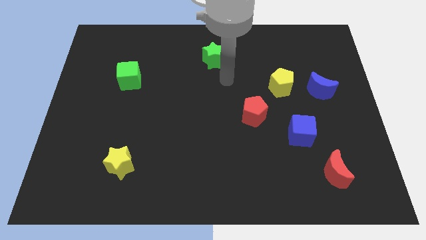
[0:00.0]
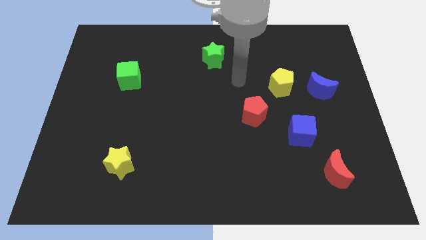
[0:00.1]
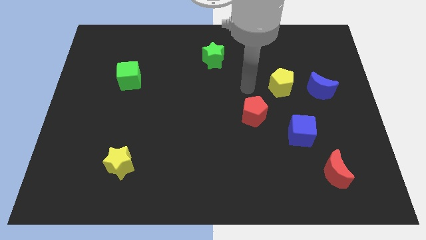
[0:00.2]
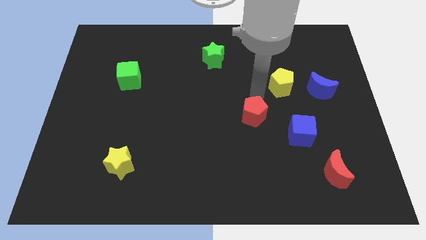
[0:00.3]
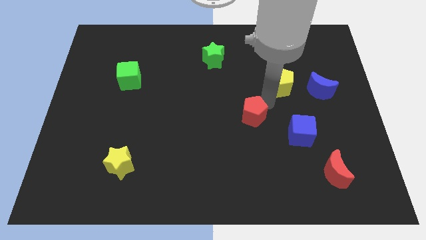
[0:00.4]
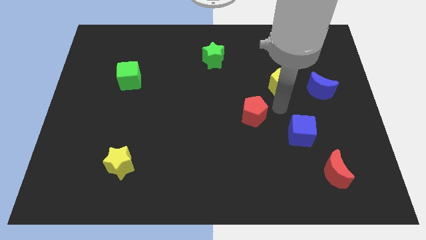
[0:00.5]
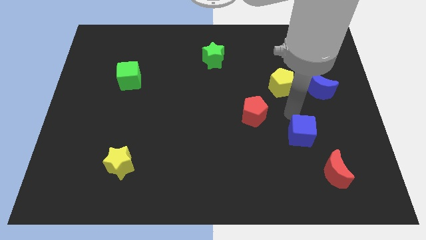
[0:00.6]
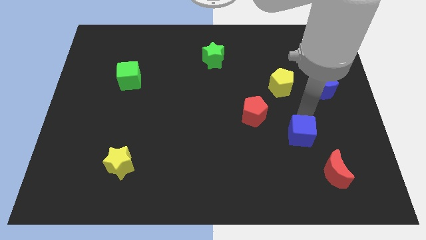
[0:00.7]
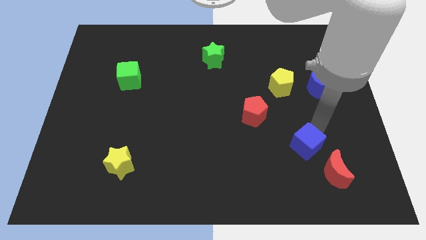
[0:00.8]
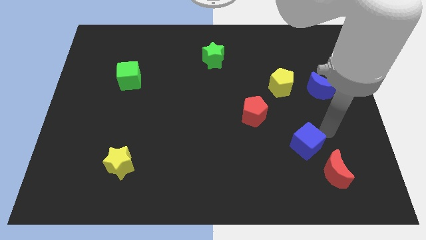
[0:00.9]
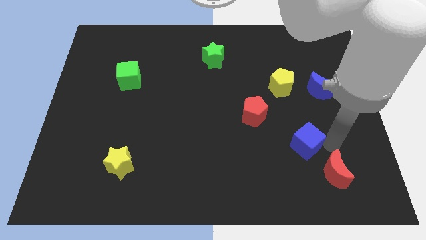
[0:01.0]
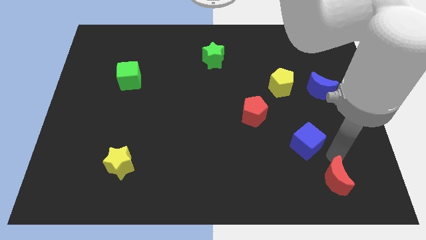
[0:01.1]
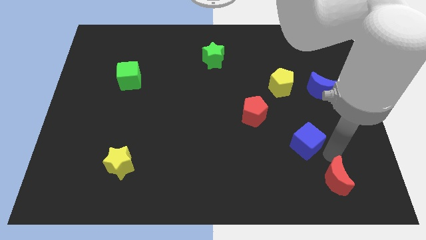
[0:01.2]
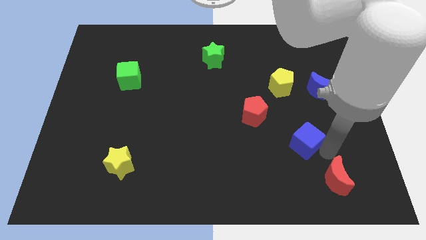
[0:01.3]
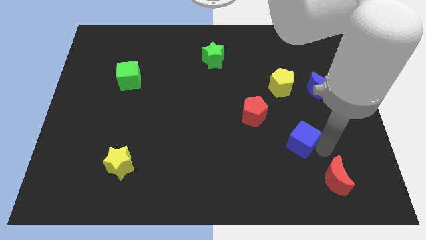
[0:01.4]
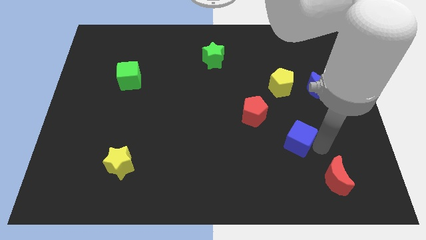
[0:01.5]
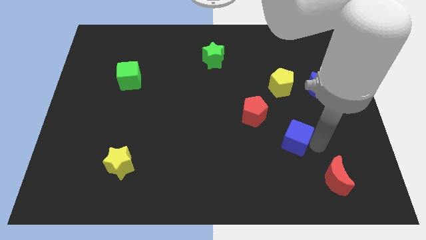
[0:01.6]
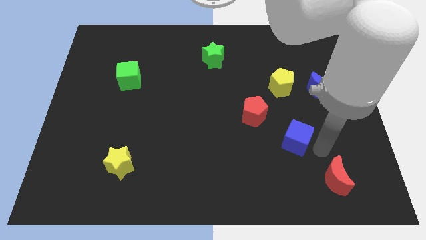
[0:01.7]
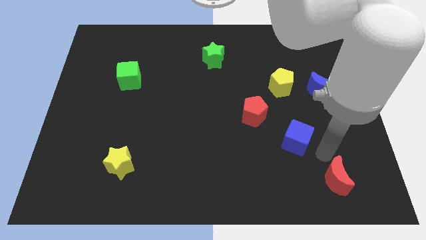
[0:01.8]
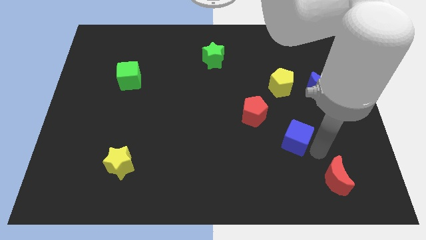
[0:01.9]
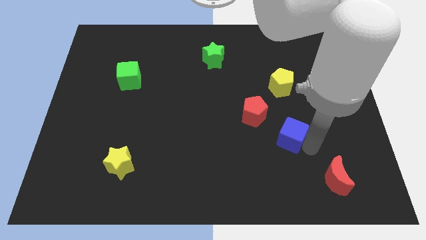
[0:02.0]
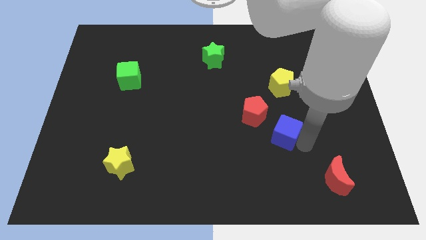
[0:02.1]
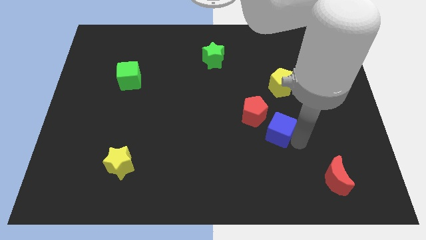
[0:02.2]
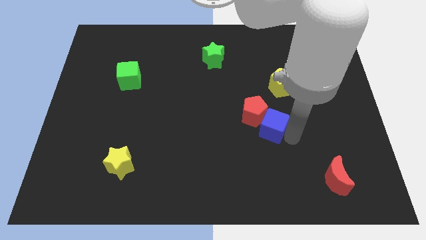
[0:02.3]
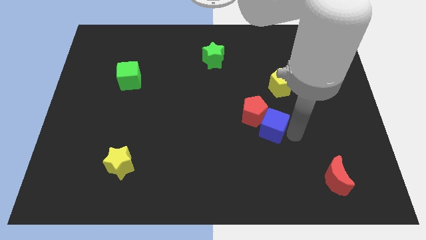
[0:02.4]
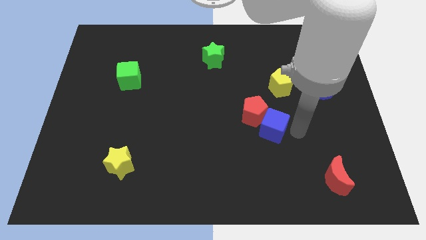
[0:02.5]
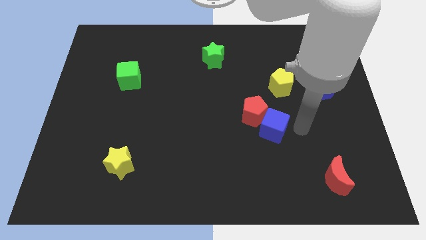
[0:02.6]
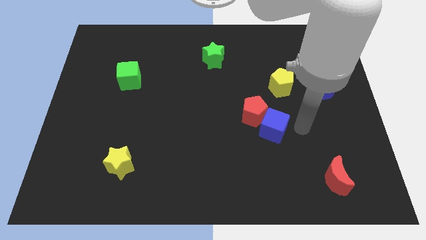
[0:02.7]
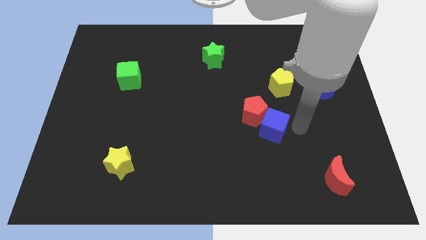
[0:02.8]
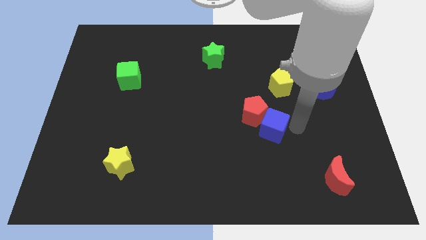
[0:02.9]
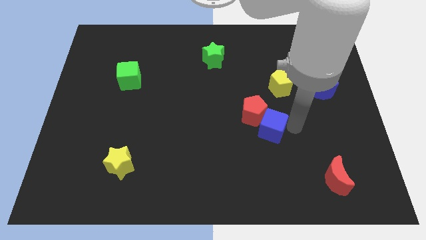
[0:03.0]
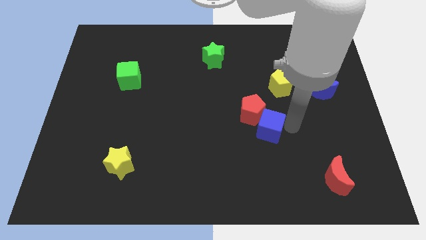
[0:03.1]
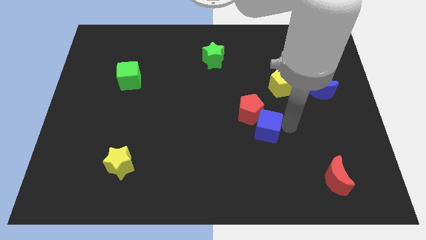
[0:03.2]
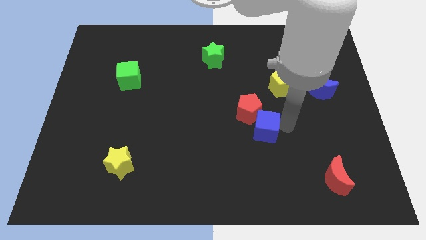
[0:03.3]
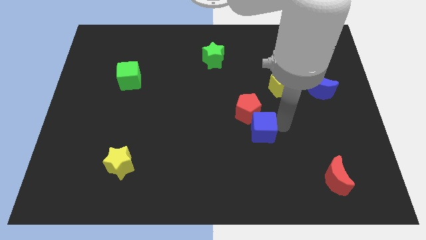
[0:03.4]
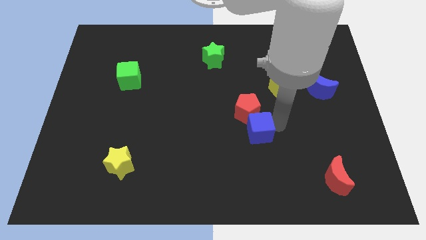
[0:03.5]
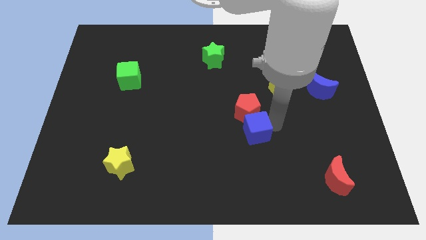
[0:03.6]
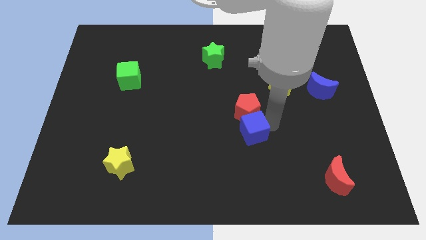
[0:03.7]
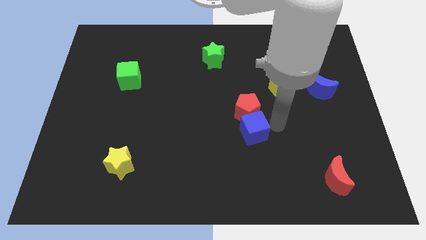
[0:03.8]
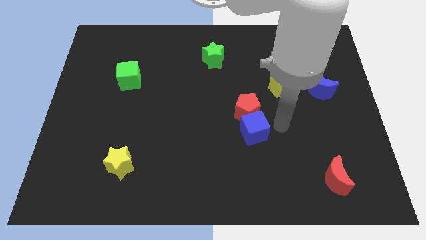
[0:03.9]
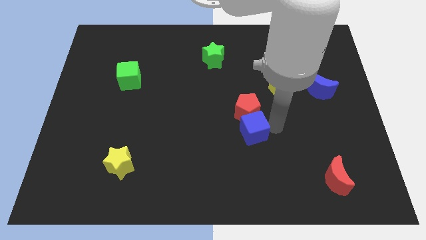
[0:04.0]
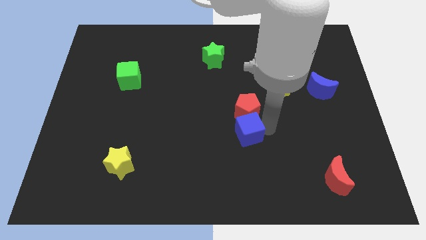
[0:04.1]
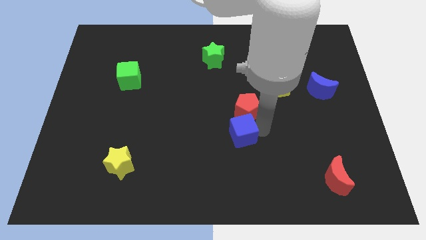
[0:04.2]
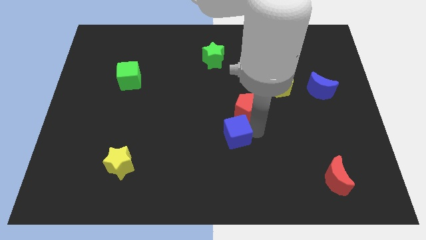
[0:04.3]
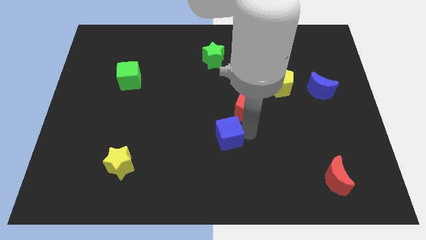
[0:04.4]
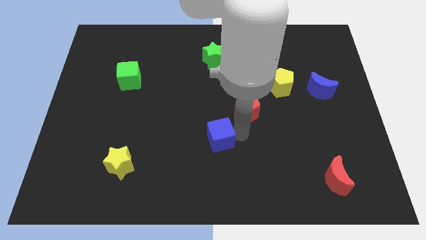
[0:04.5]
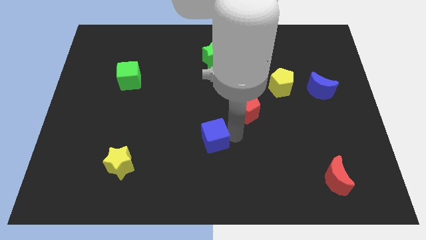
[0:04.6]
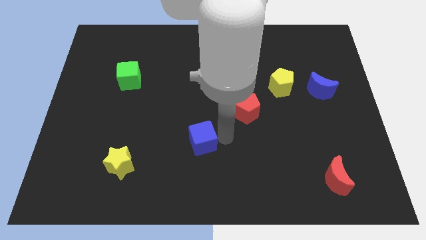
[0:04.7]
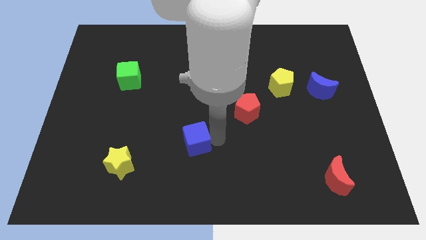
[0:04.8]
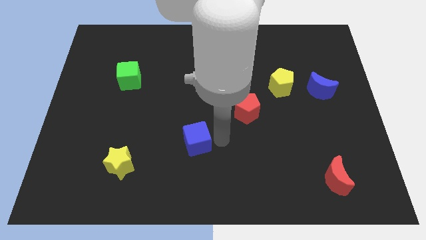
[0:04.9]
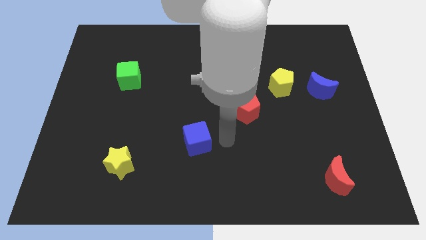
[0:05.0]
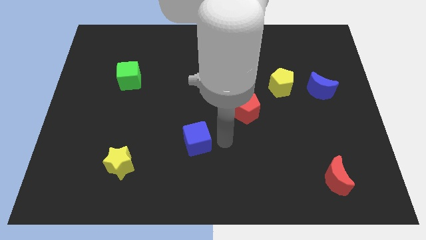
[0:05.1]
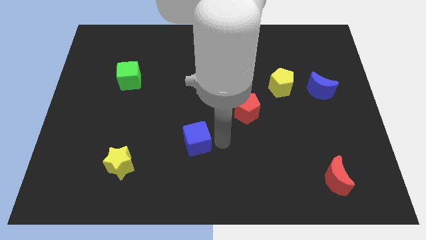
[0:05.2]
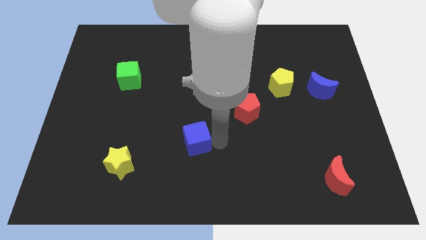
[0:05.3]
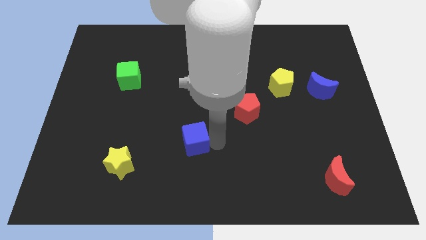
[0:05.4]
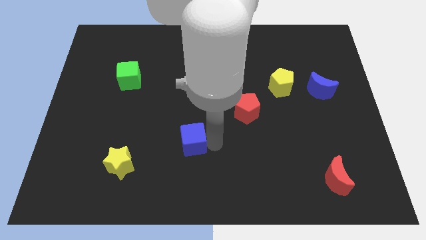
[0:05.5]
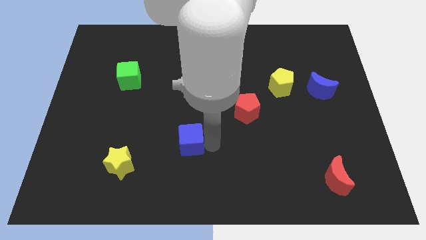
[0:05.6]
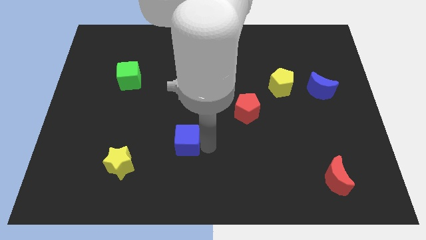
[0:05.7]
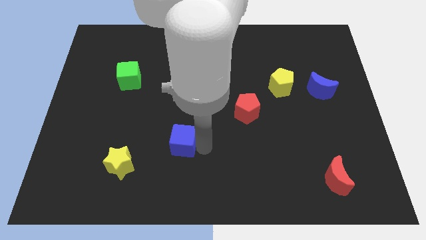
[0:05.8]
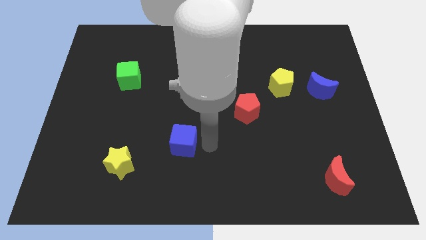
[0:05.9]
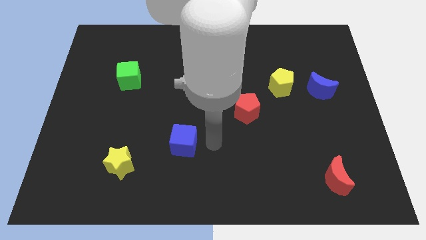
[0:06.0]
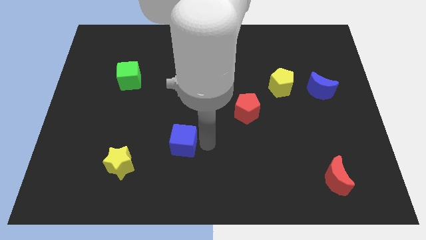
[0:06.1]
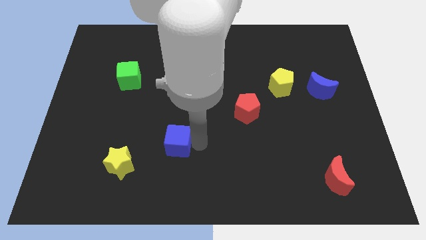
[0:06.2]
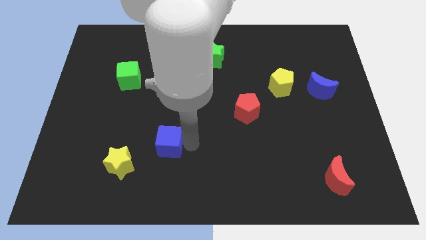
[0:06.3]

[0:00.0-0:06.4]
put the blue cube to the top right side of the yellow star

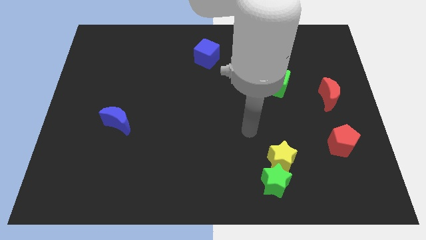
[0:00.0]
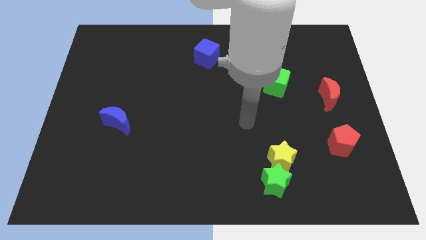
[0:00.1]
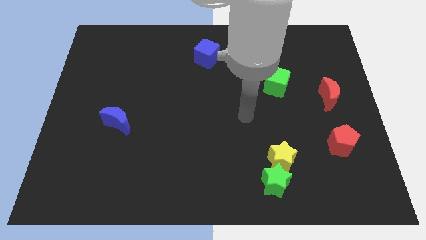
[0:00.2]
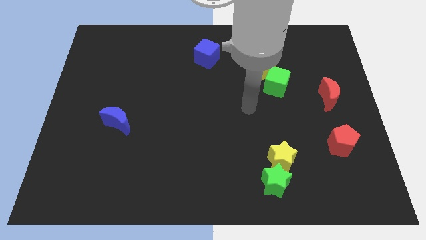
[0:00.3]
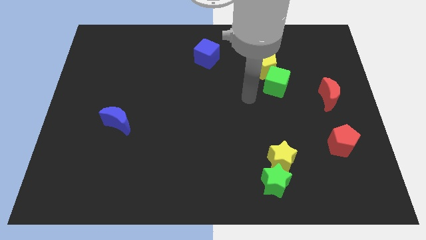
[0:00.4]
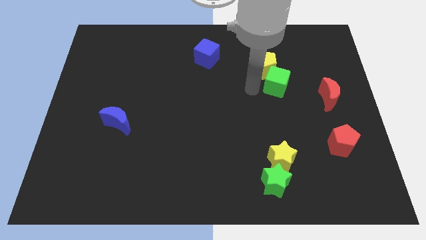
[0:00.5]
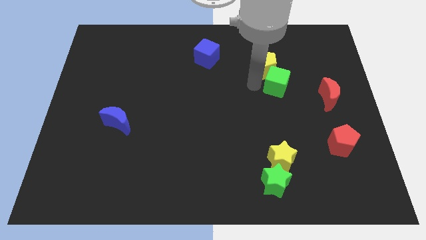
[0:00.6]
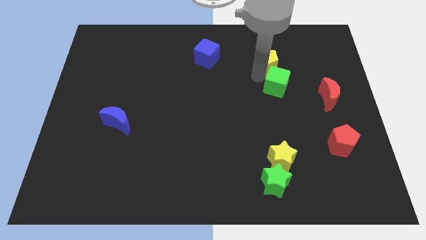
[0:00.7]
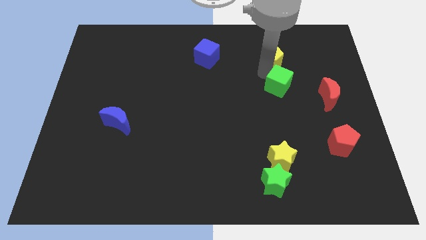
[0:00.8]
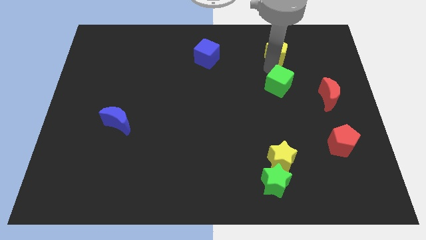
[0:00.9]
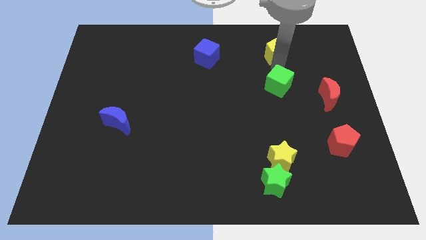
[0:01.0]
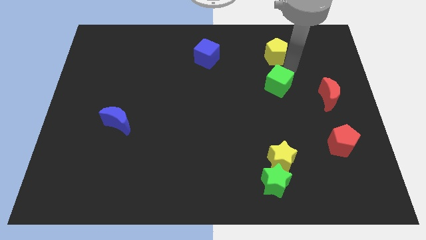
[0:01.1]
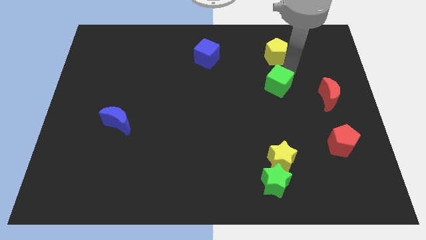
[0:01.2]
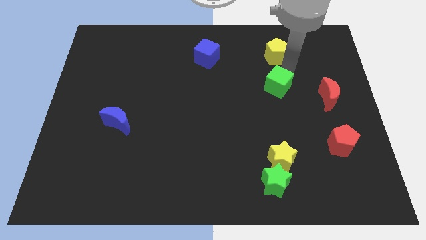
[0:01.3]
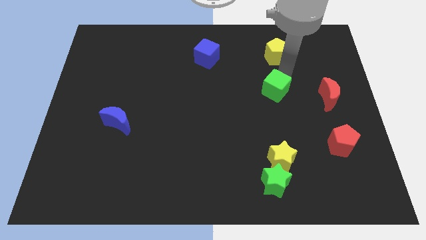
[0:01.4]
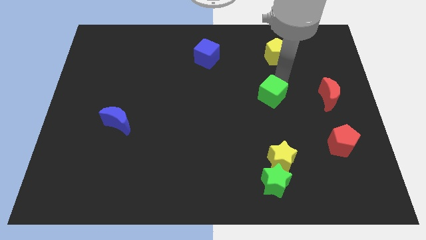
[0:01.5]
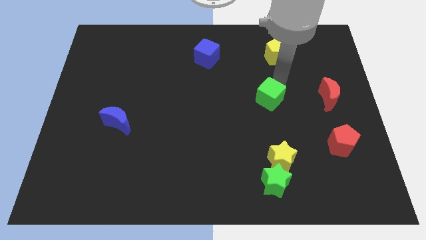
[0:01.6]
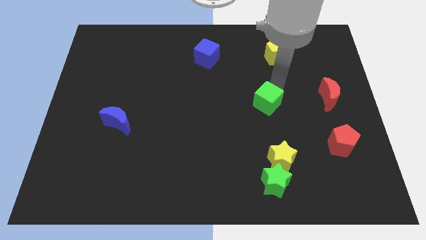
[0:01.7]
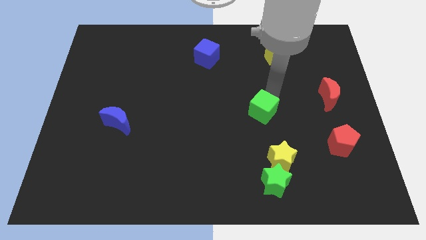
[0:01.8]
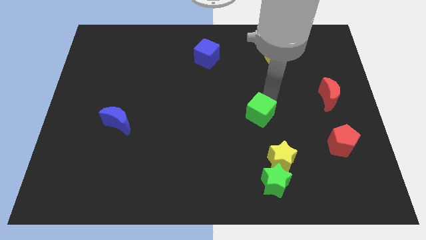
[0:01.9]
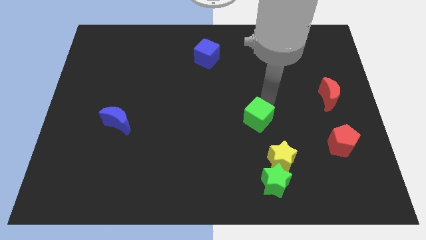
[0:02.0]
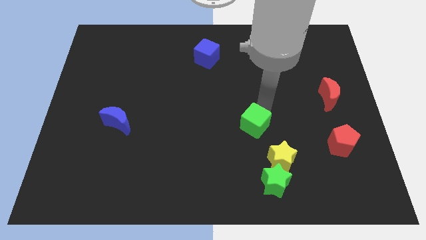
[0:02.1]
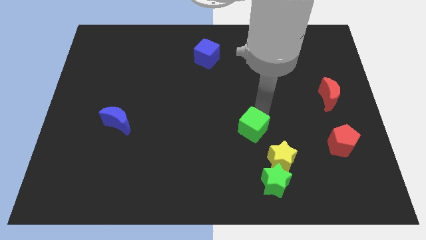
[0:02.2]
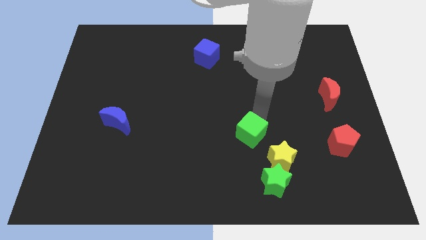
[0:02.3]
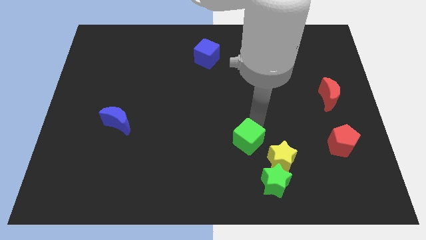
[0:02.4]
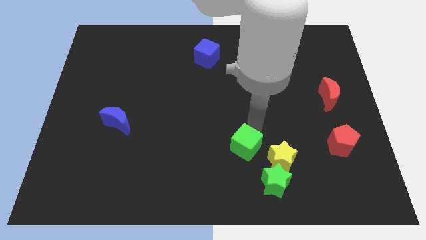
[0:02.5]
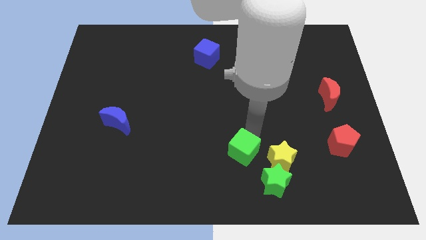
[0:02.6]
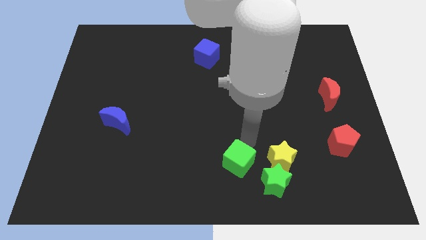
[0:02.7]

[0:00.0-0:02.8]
slide the green cube to the left side of the green star
